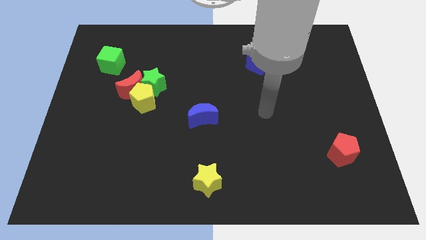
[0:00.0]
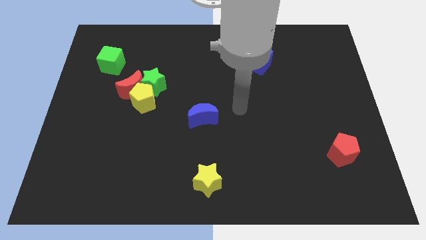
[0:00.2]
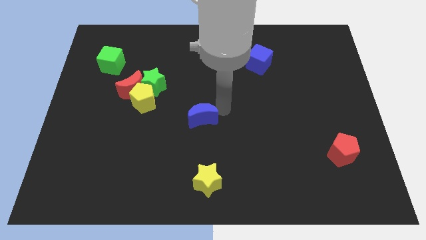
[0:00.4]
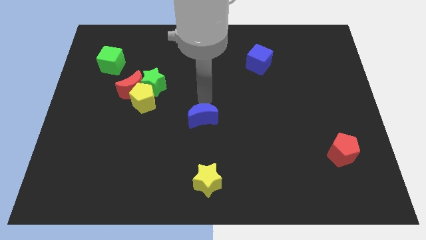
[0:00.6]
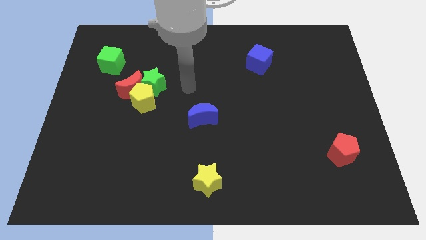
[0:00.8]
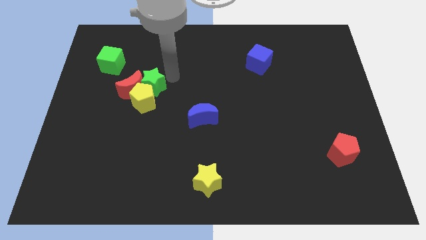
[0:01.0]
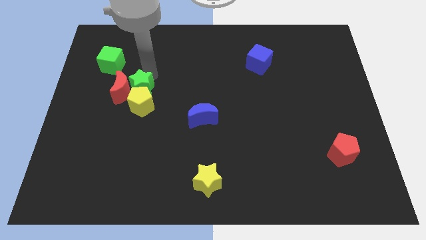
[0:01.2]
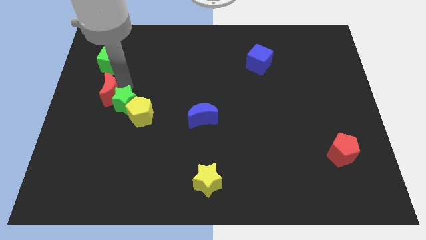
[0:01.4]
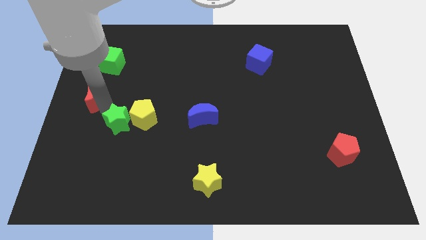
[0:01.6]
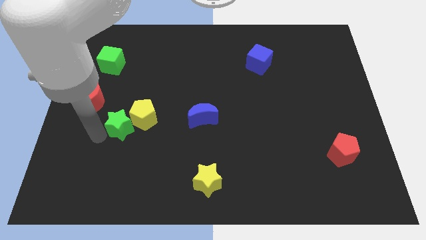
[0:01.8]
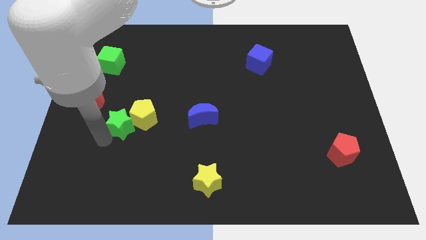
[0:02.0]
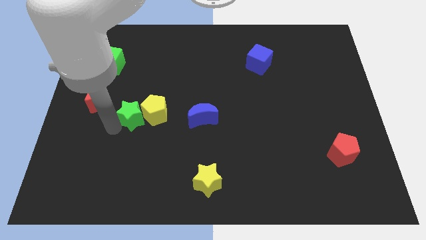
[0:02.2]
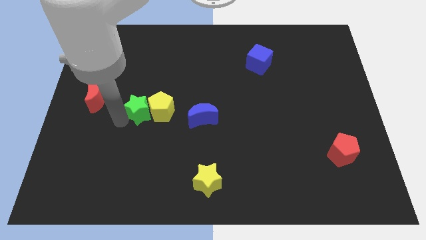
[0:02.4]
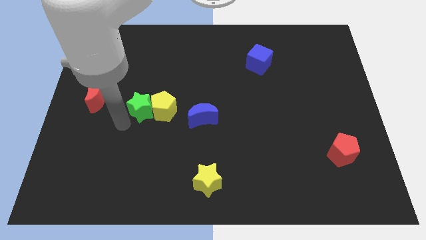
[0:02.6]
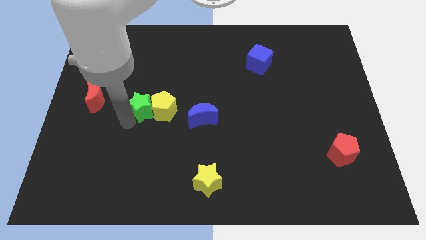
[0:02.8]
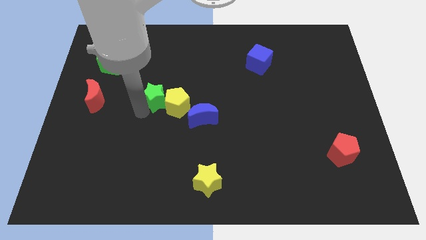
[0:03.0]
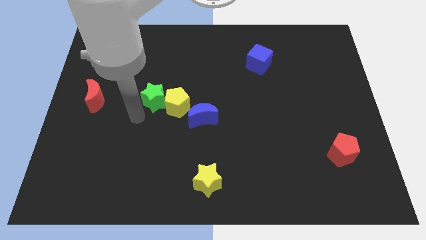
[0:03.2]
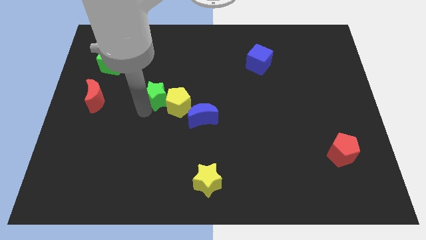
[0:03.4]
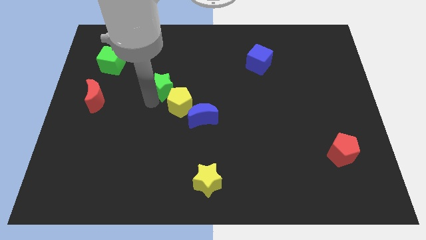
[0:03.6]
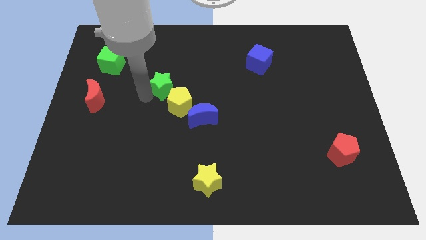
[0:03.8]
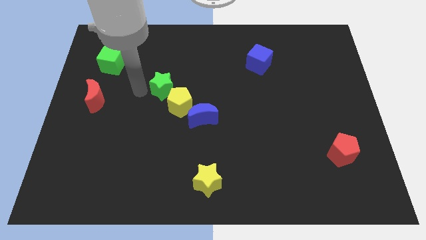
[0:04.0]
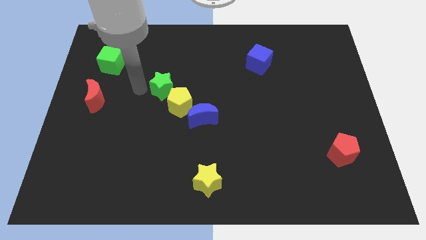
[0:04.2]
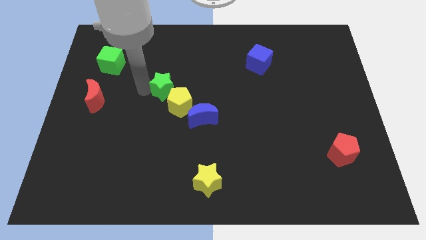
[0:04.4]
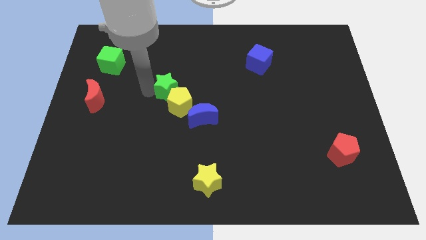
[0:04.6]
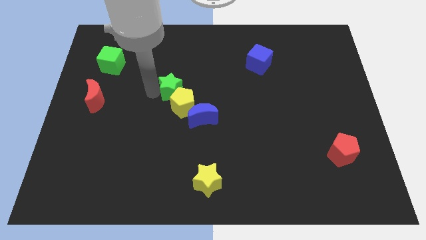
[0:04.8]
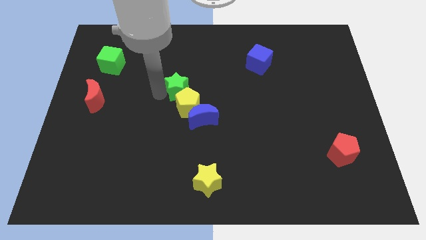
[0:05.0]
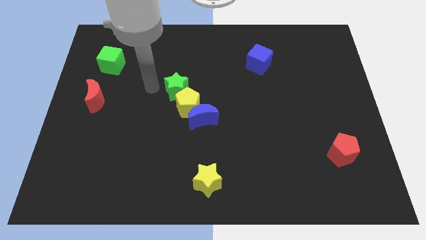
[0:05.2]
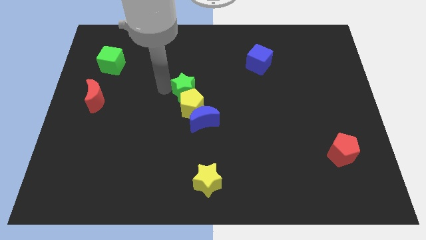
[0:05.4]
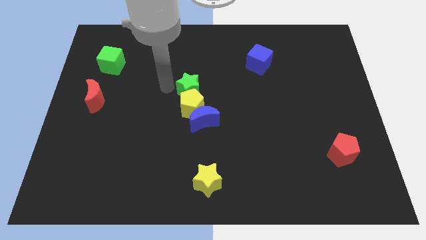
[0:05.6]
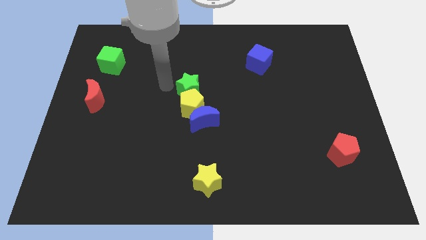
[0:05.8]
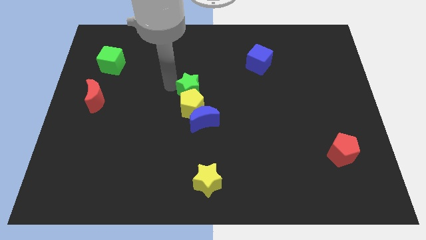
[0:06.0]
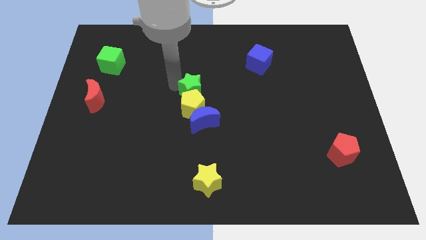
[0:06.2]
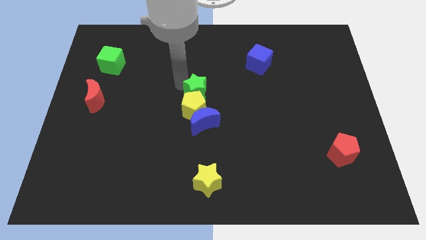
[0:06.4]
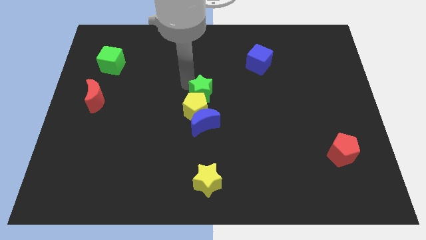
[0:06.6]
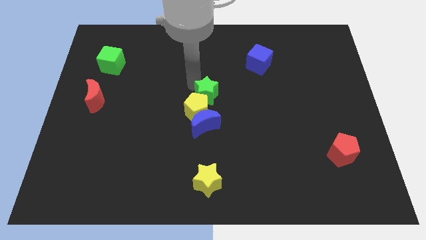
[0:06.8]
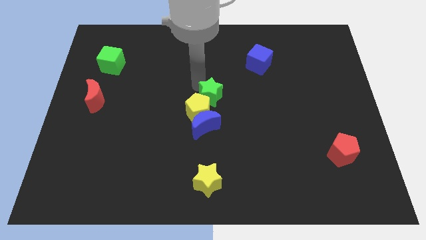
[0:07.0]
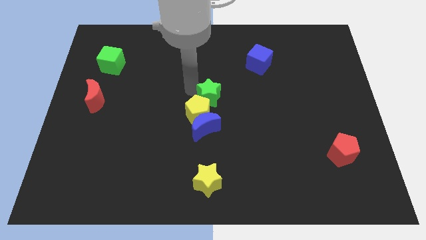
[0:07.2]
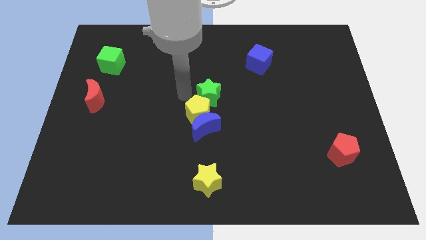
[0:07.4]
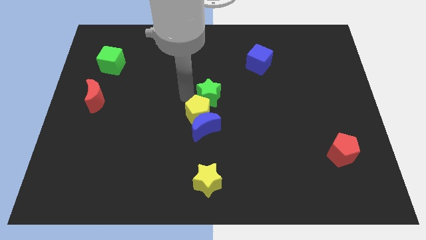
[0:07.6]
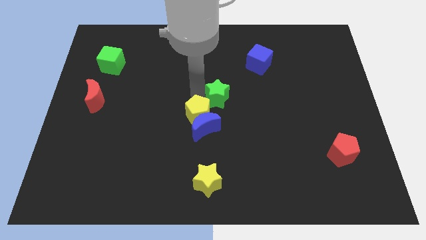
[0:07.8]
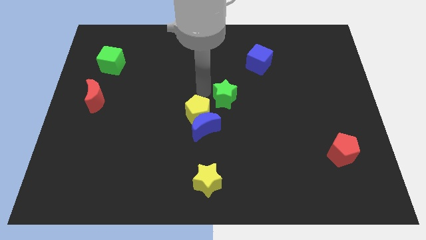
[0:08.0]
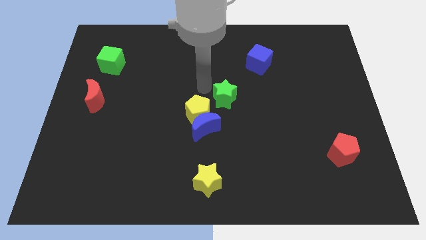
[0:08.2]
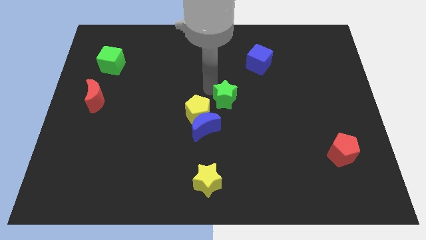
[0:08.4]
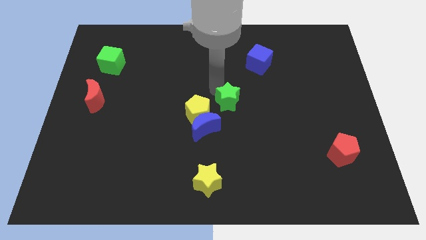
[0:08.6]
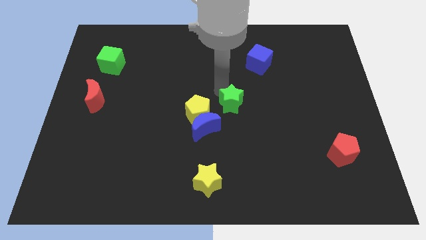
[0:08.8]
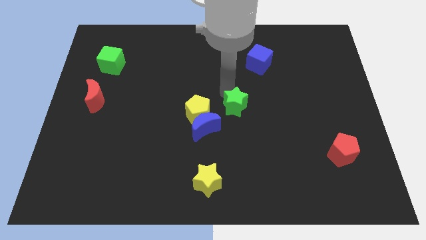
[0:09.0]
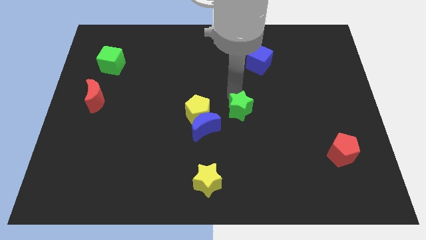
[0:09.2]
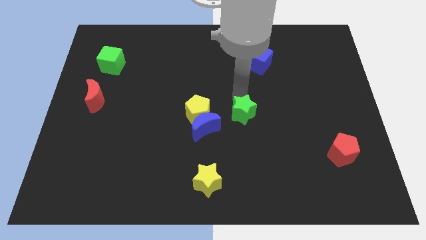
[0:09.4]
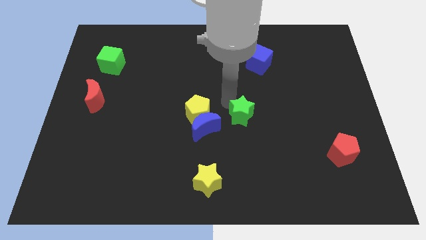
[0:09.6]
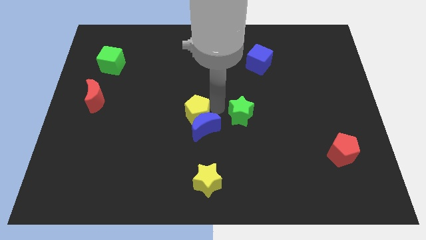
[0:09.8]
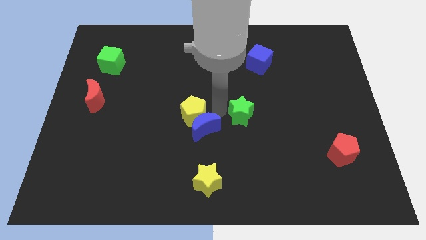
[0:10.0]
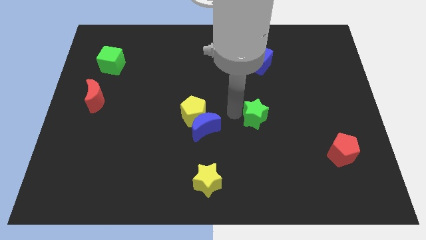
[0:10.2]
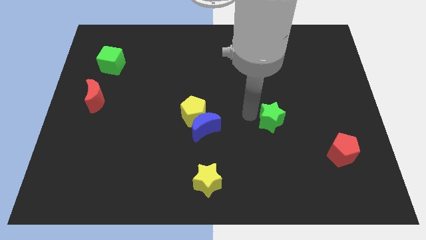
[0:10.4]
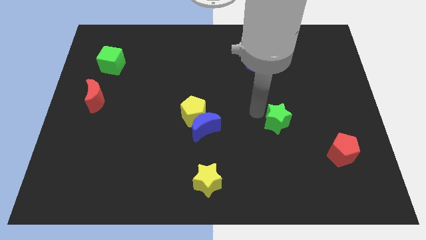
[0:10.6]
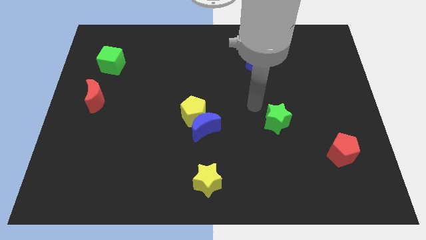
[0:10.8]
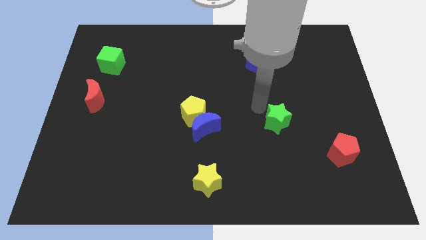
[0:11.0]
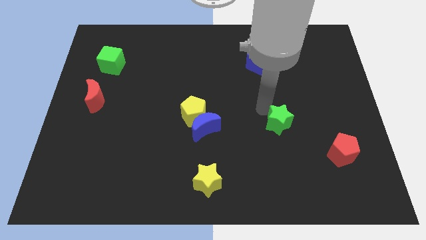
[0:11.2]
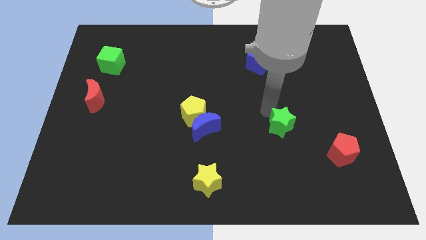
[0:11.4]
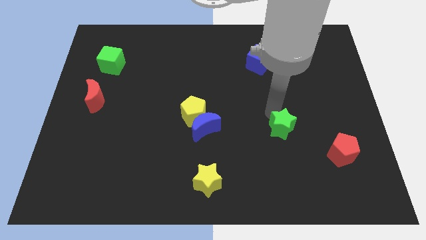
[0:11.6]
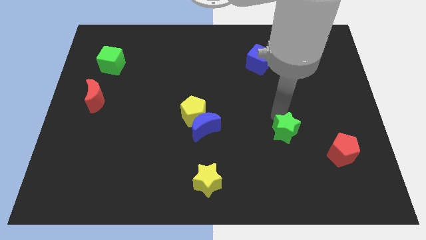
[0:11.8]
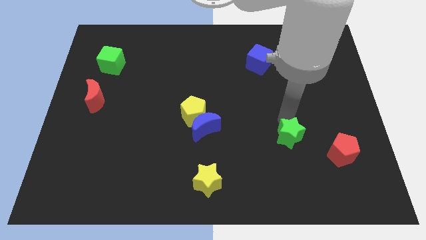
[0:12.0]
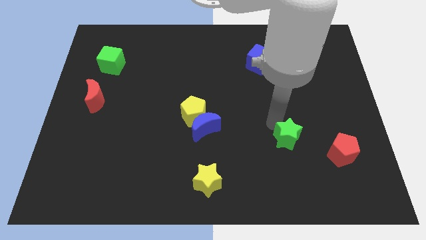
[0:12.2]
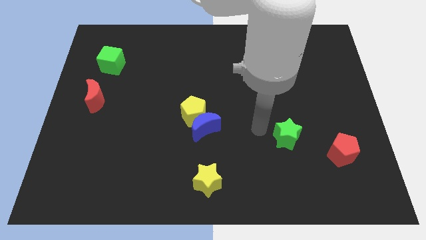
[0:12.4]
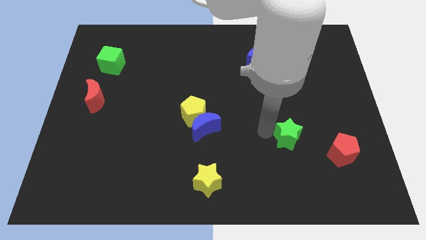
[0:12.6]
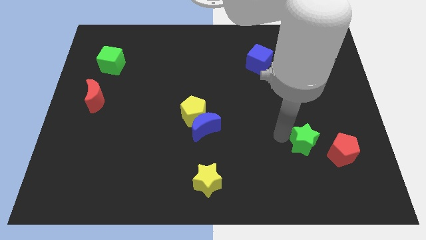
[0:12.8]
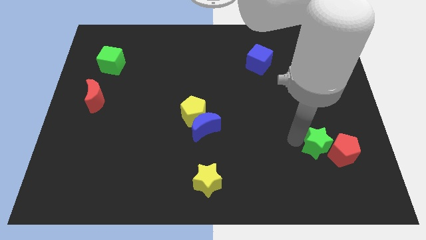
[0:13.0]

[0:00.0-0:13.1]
slide the green star to the red pentagon
